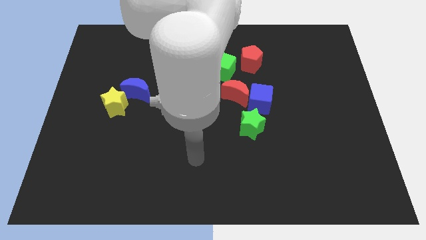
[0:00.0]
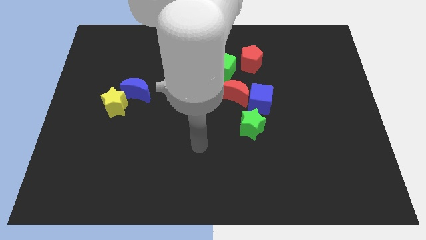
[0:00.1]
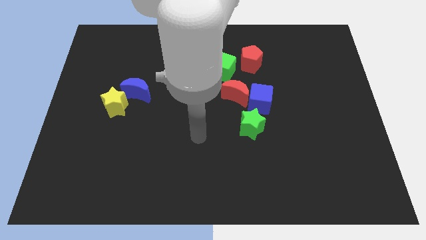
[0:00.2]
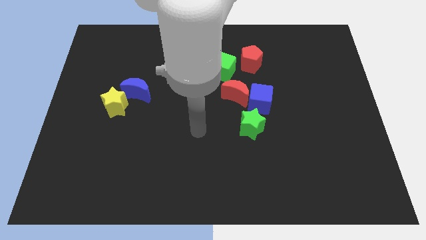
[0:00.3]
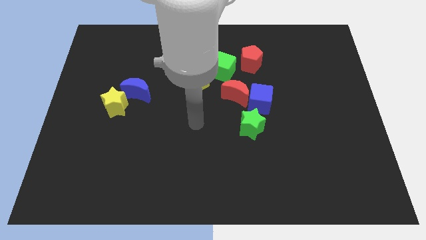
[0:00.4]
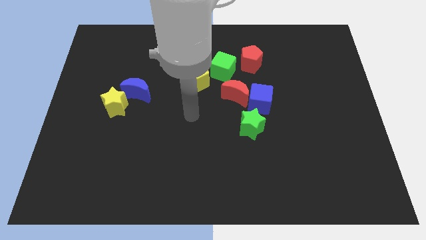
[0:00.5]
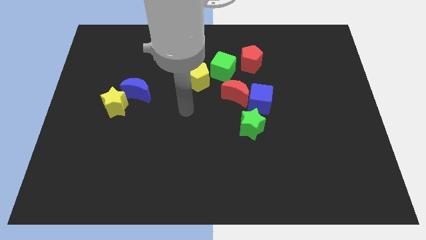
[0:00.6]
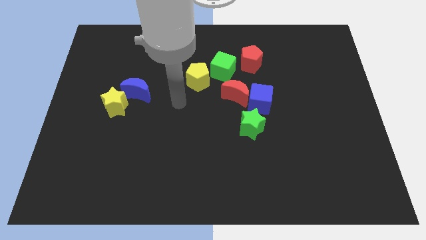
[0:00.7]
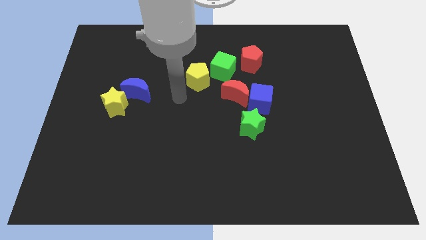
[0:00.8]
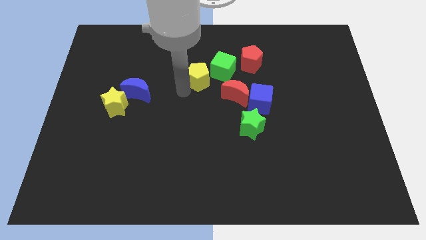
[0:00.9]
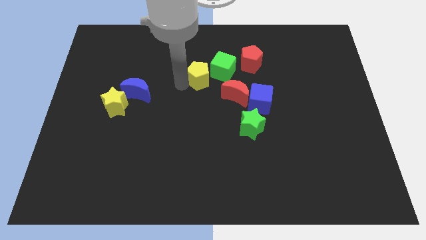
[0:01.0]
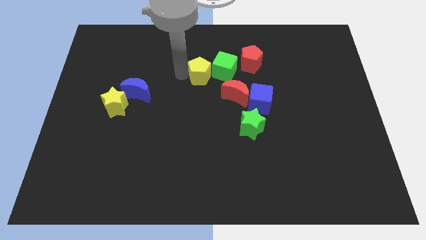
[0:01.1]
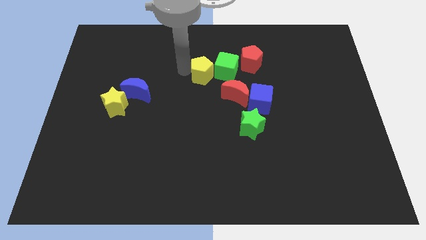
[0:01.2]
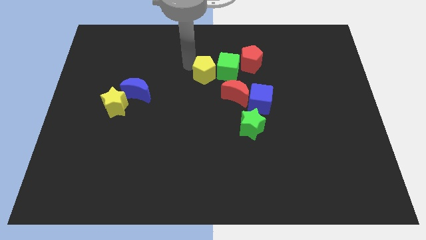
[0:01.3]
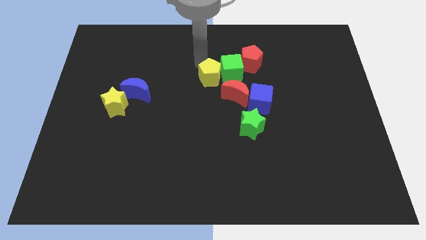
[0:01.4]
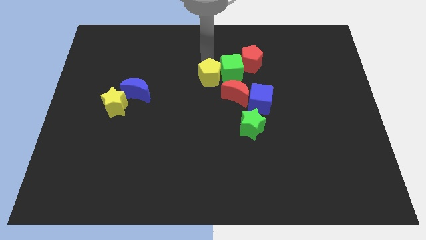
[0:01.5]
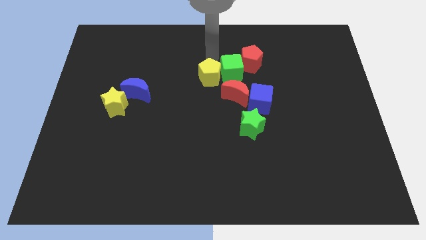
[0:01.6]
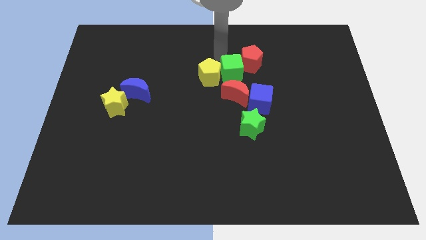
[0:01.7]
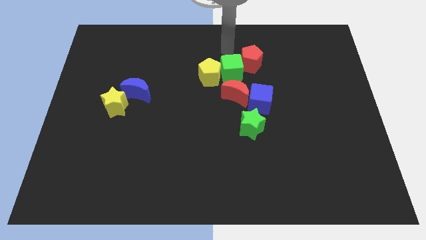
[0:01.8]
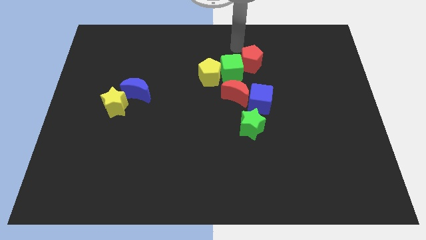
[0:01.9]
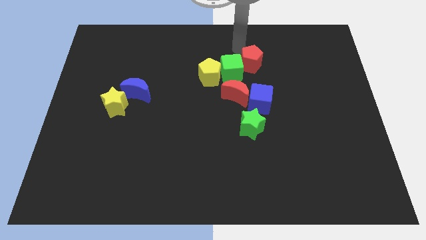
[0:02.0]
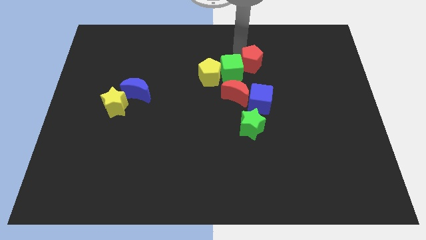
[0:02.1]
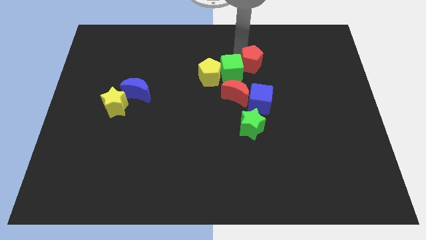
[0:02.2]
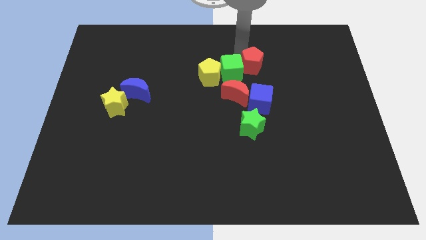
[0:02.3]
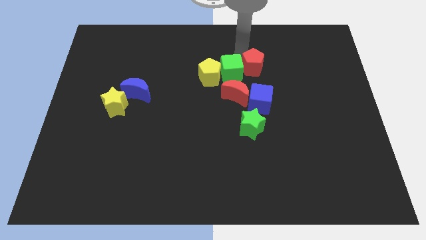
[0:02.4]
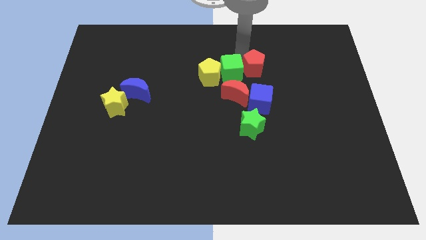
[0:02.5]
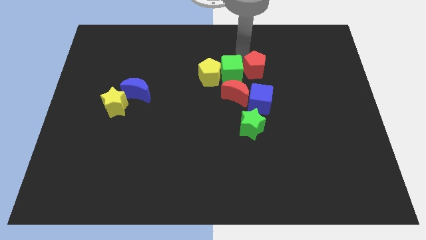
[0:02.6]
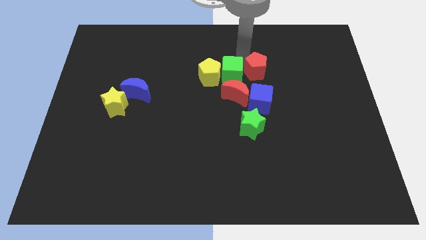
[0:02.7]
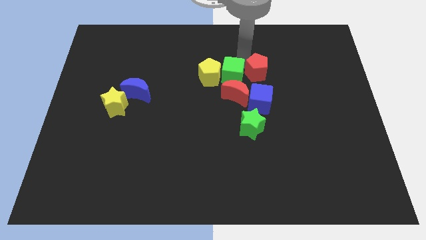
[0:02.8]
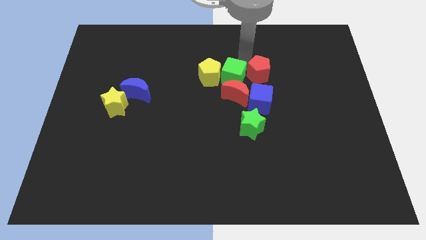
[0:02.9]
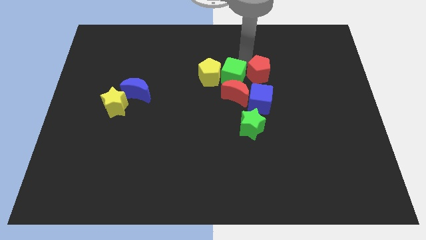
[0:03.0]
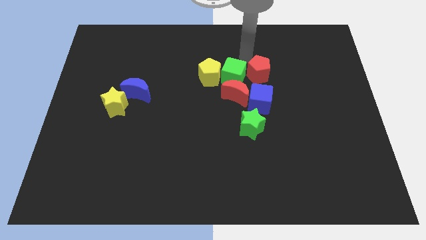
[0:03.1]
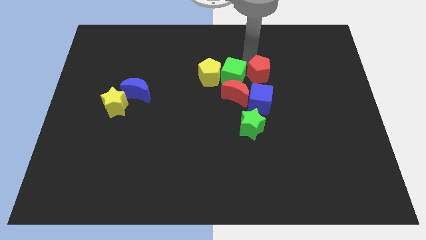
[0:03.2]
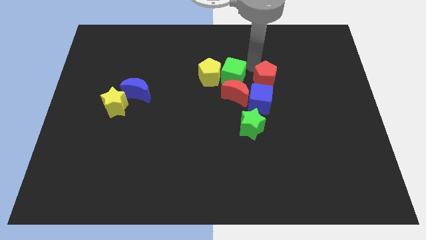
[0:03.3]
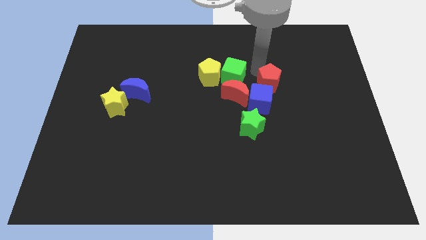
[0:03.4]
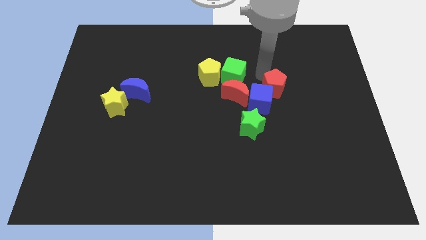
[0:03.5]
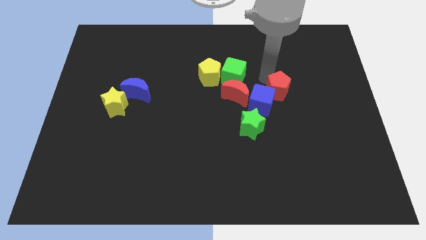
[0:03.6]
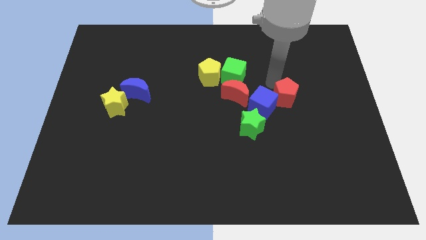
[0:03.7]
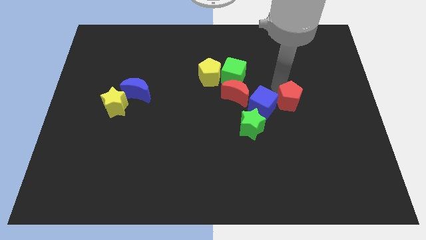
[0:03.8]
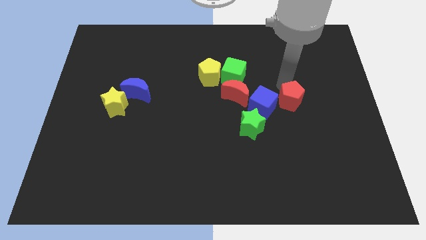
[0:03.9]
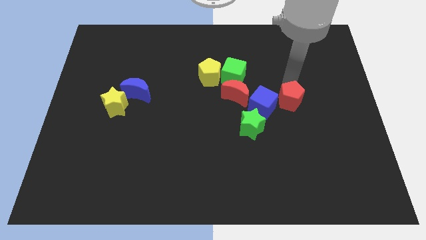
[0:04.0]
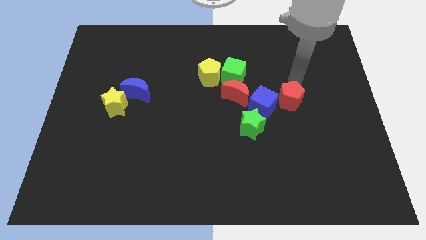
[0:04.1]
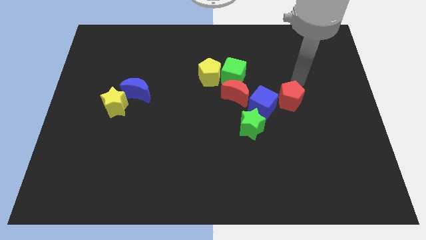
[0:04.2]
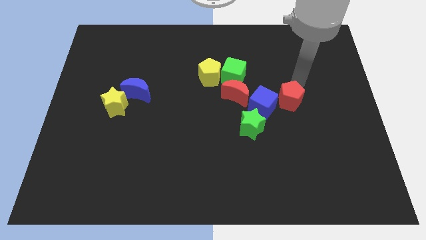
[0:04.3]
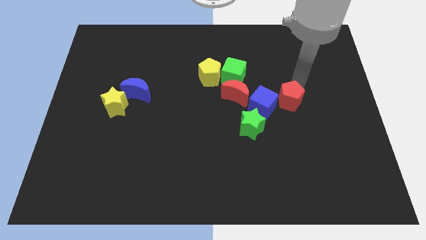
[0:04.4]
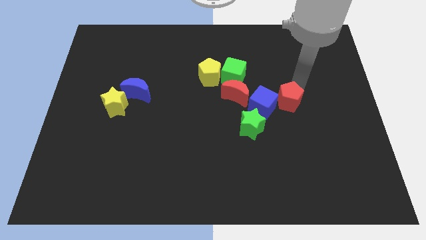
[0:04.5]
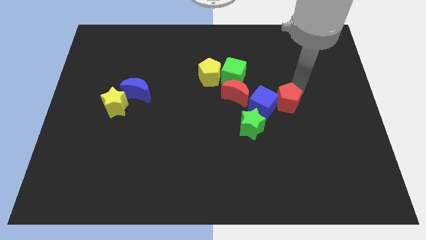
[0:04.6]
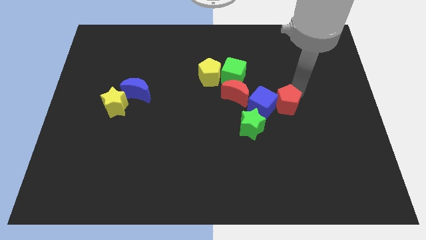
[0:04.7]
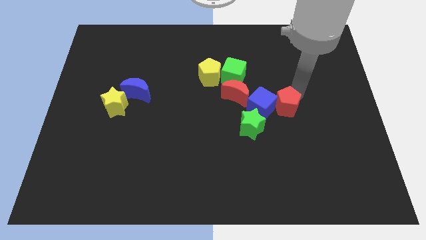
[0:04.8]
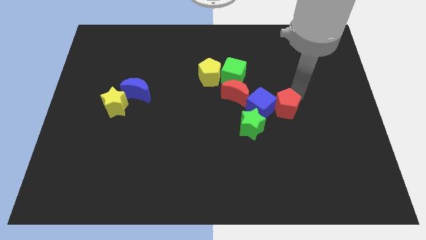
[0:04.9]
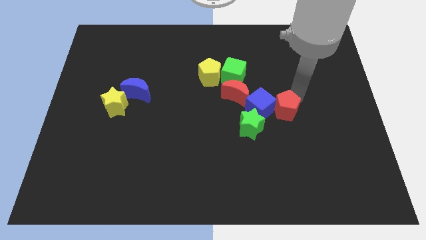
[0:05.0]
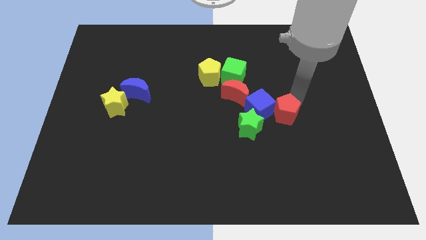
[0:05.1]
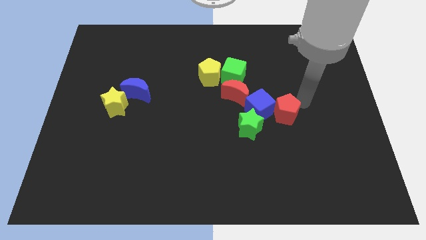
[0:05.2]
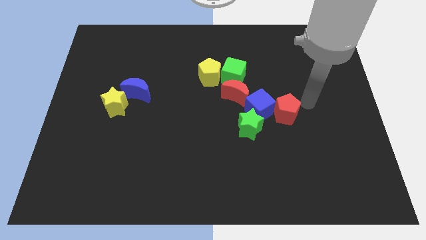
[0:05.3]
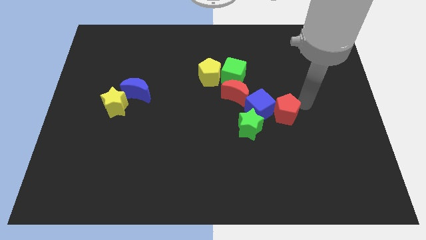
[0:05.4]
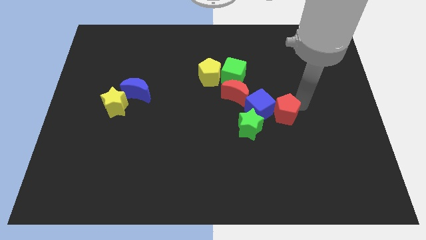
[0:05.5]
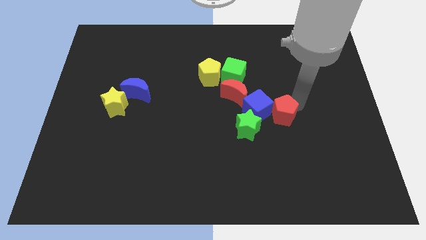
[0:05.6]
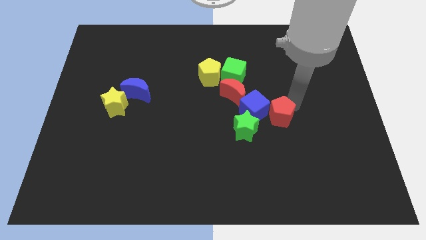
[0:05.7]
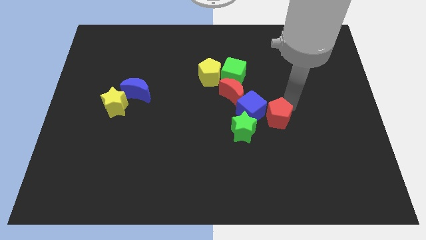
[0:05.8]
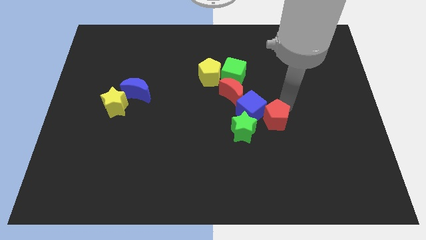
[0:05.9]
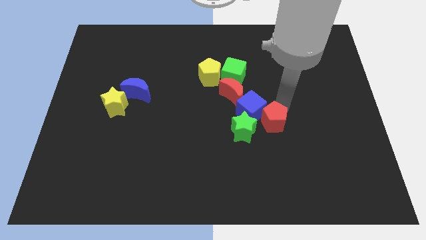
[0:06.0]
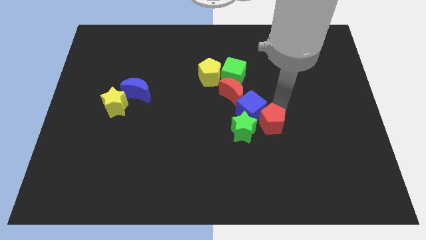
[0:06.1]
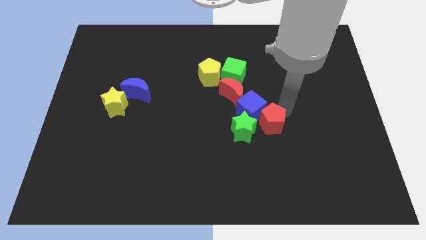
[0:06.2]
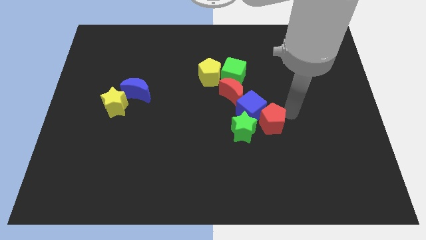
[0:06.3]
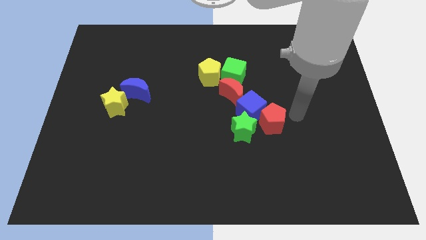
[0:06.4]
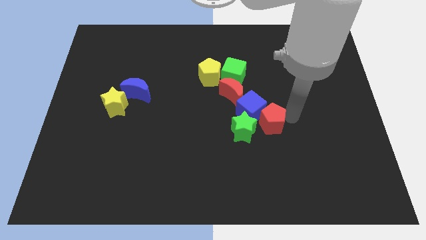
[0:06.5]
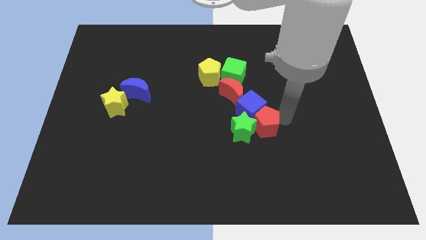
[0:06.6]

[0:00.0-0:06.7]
put the red pentagon towards the green star

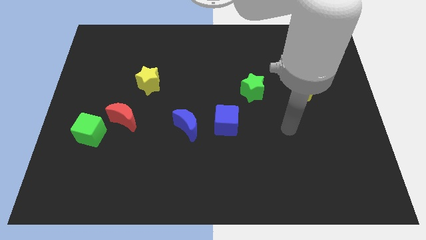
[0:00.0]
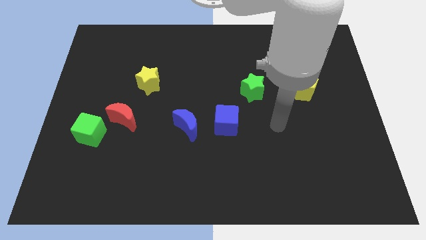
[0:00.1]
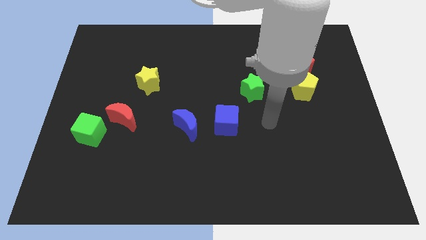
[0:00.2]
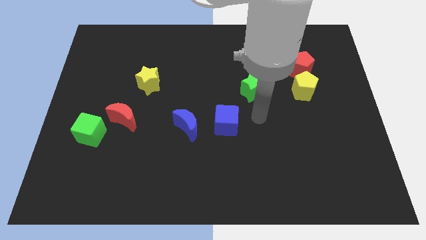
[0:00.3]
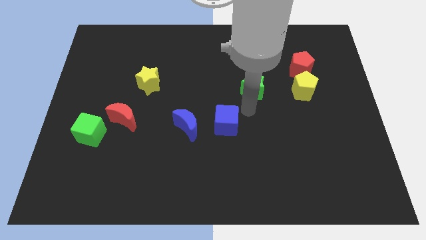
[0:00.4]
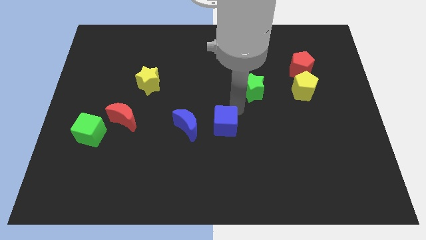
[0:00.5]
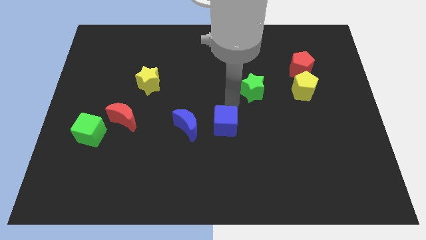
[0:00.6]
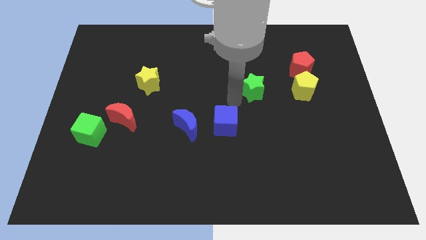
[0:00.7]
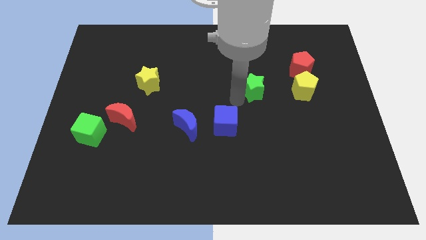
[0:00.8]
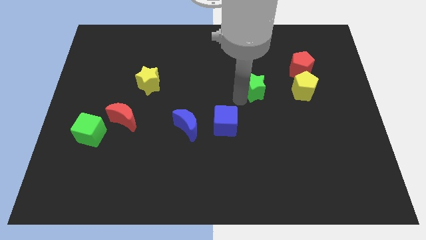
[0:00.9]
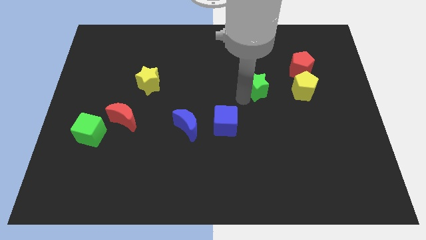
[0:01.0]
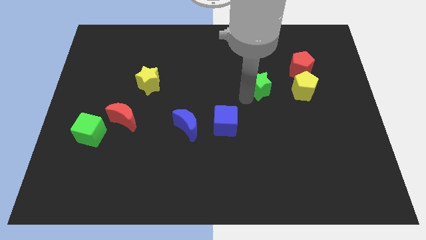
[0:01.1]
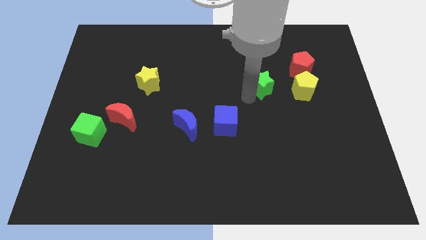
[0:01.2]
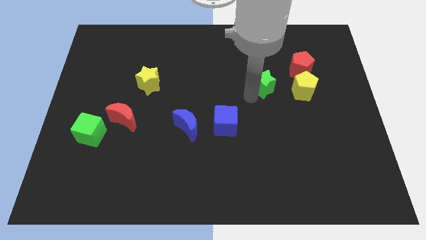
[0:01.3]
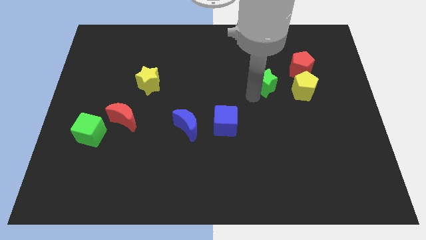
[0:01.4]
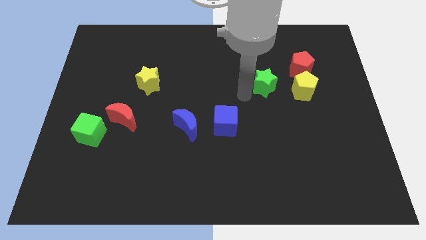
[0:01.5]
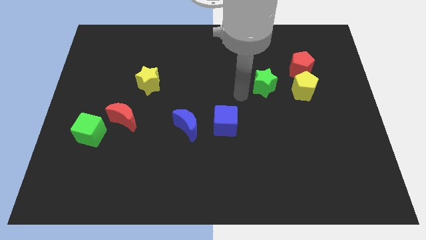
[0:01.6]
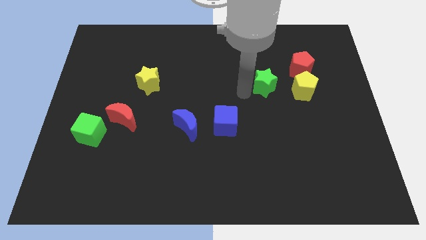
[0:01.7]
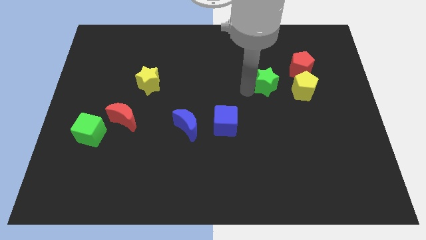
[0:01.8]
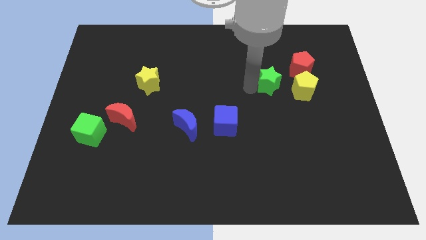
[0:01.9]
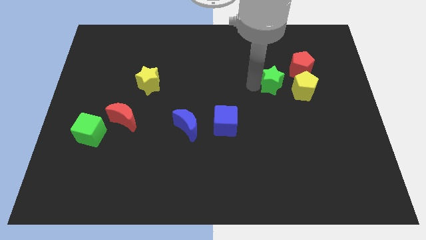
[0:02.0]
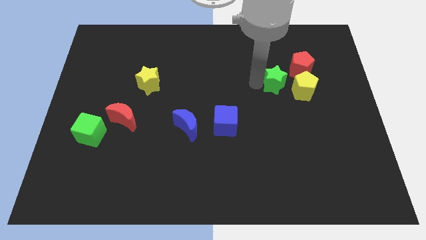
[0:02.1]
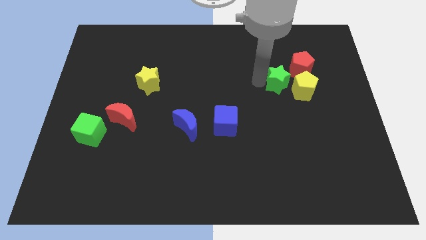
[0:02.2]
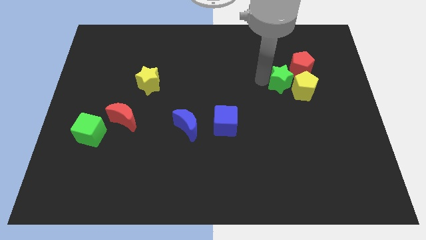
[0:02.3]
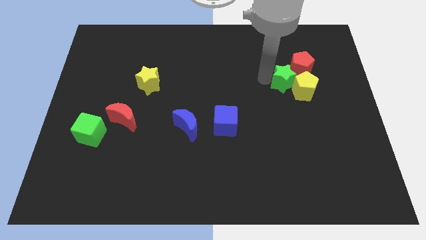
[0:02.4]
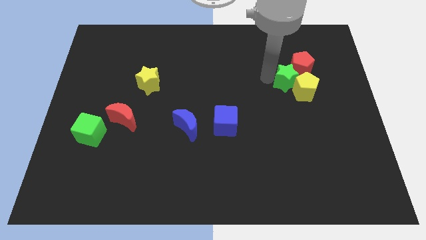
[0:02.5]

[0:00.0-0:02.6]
put the green star towards the red pentagon
